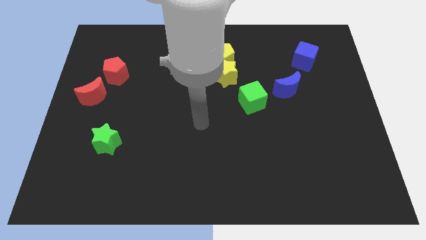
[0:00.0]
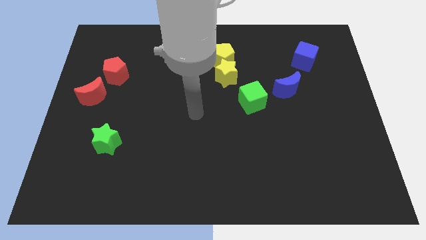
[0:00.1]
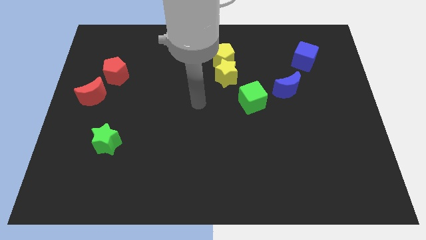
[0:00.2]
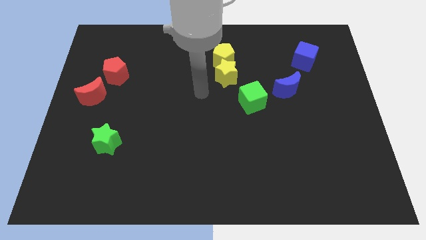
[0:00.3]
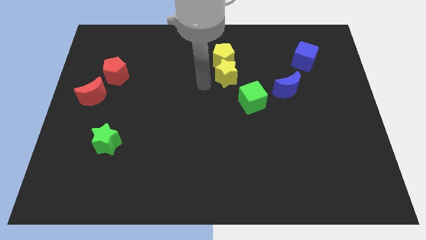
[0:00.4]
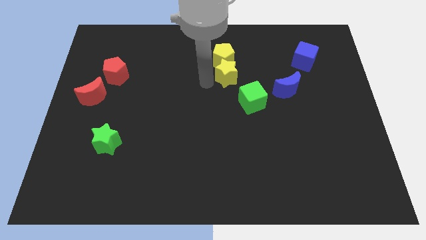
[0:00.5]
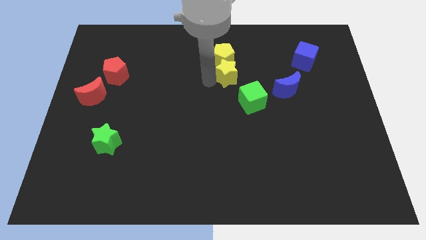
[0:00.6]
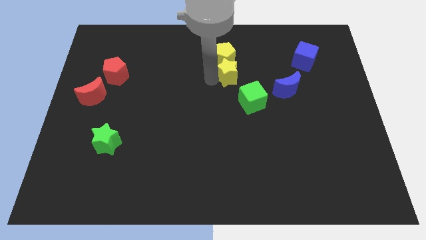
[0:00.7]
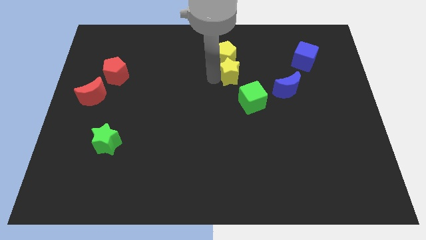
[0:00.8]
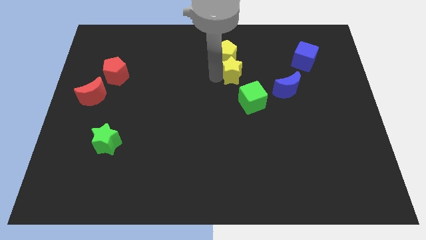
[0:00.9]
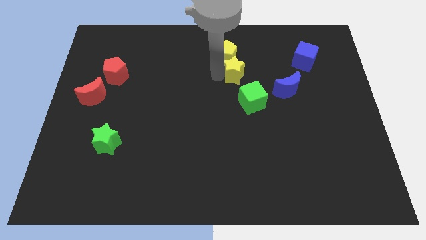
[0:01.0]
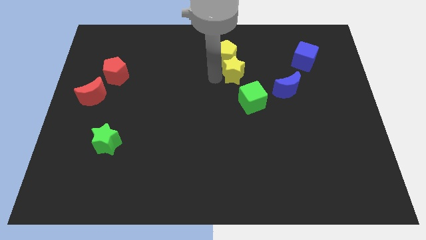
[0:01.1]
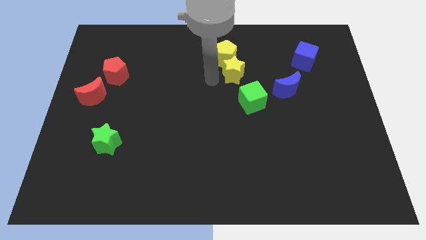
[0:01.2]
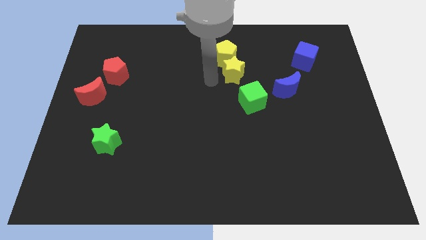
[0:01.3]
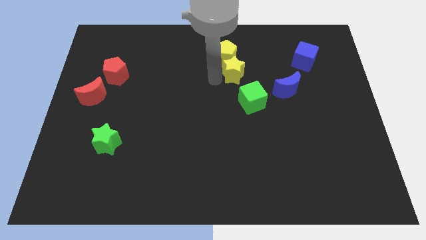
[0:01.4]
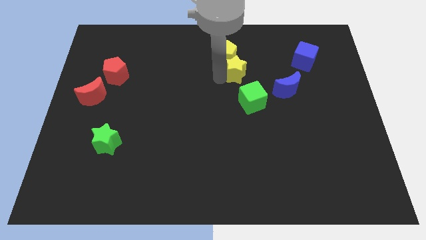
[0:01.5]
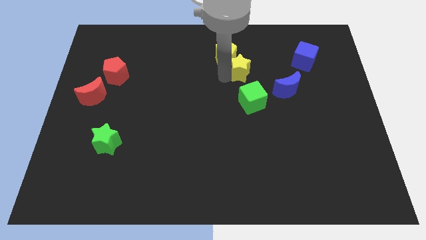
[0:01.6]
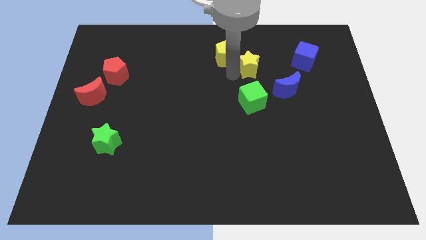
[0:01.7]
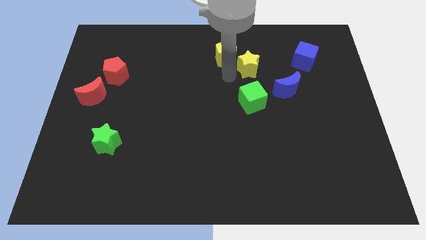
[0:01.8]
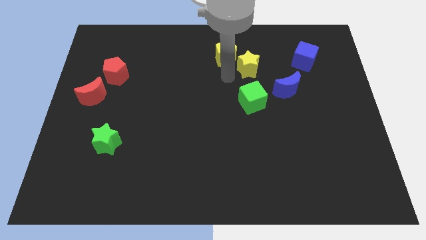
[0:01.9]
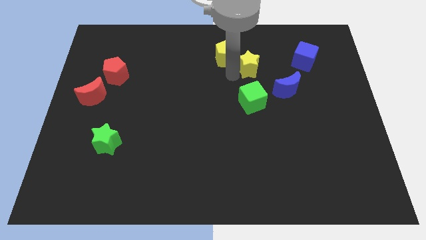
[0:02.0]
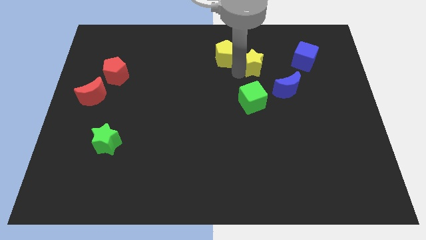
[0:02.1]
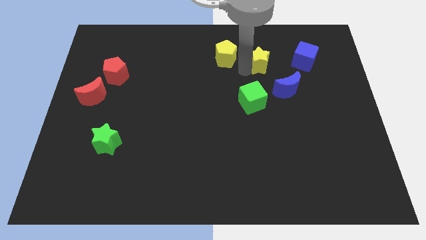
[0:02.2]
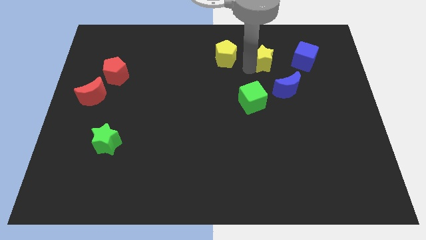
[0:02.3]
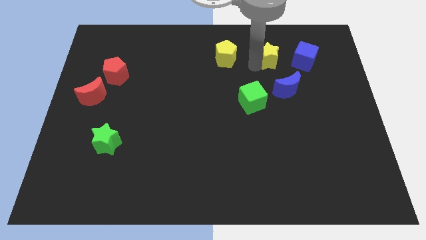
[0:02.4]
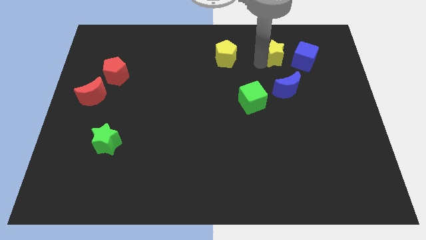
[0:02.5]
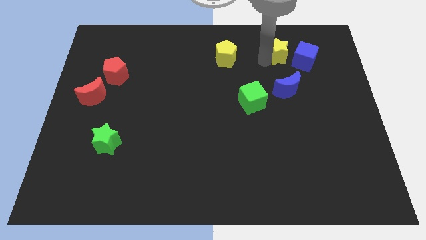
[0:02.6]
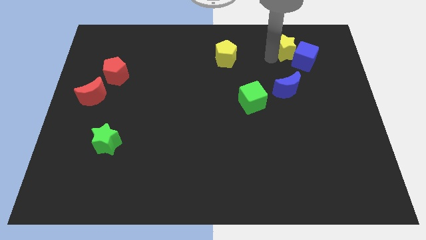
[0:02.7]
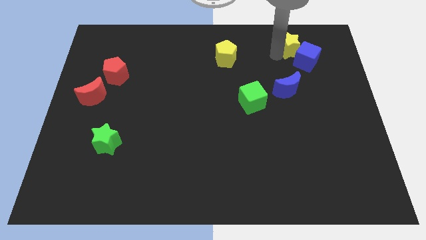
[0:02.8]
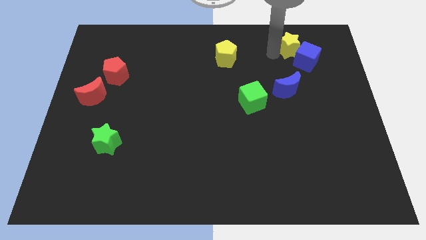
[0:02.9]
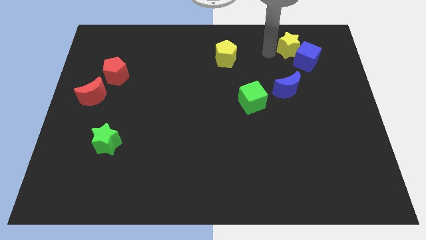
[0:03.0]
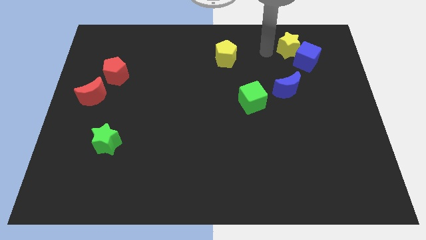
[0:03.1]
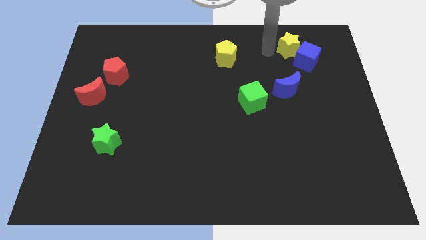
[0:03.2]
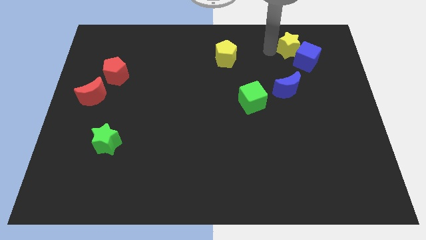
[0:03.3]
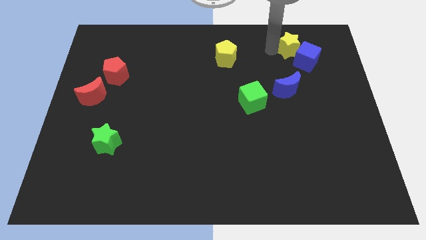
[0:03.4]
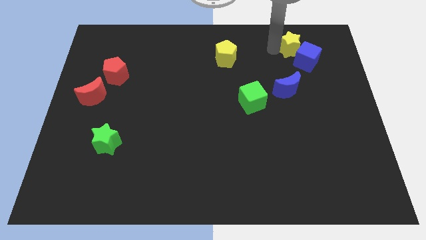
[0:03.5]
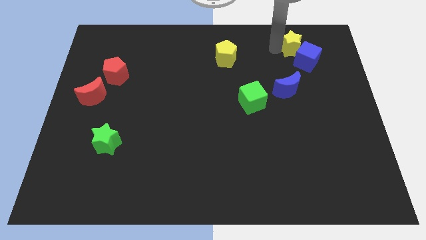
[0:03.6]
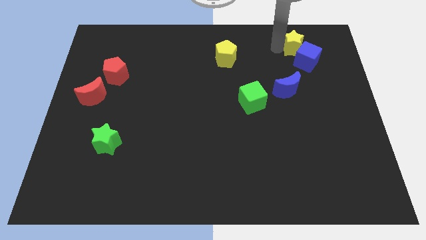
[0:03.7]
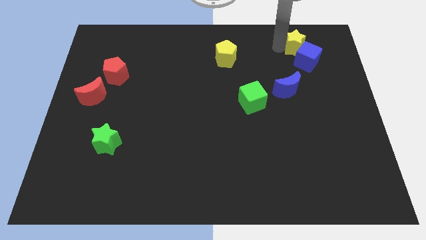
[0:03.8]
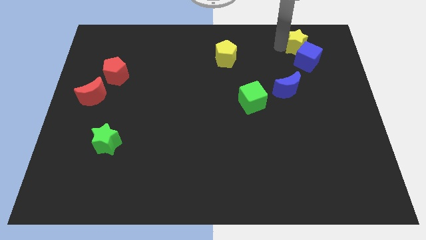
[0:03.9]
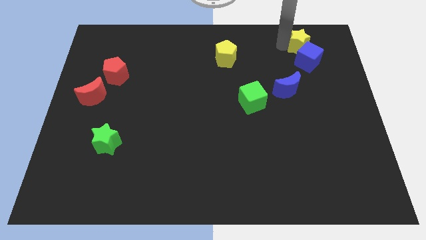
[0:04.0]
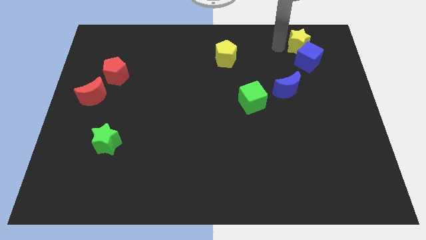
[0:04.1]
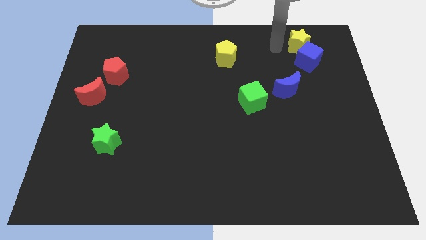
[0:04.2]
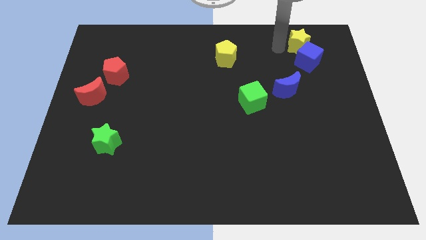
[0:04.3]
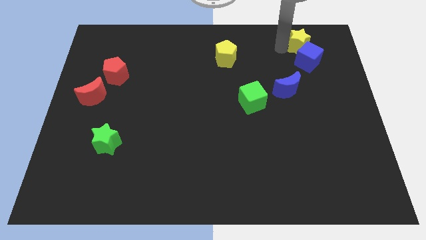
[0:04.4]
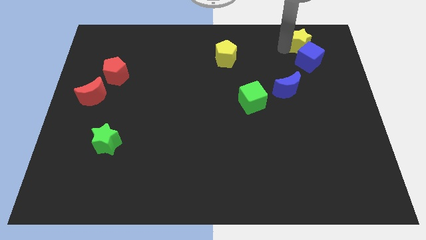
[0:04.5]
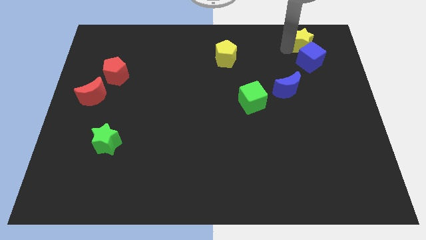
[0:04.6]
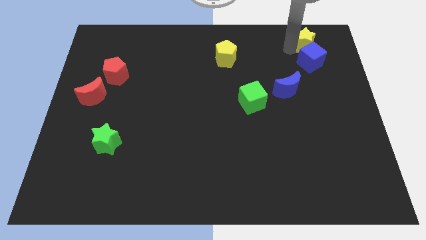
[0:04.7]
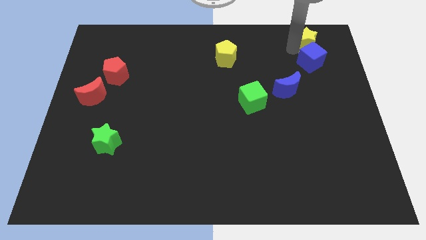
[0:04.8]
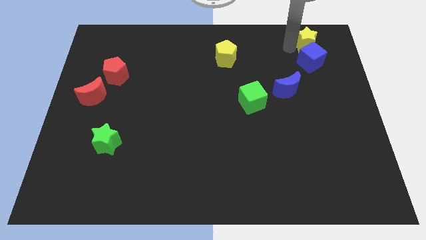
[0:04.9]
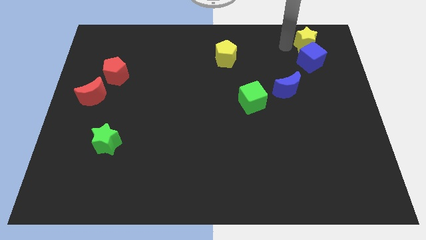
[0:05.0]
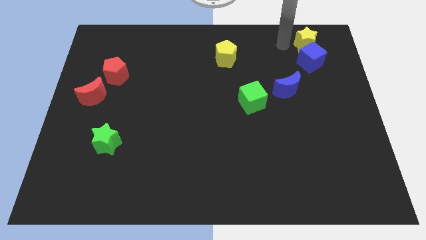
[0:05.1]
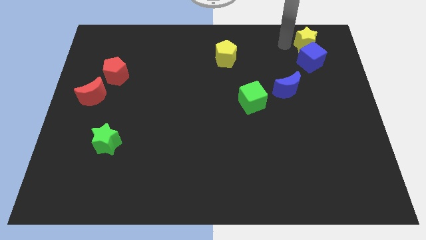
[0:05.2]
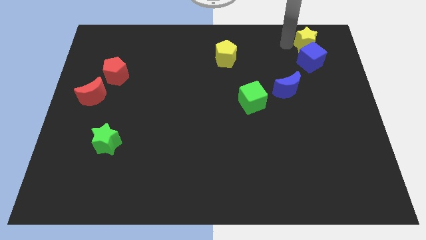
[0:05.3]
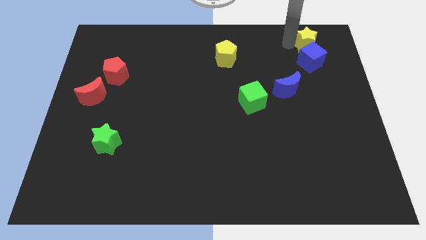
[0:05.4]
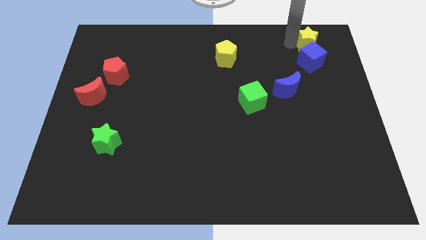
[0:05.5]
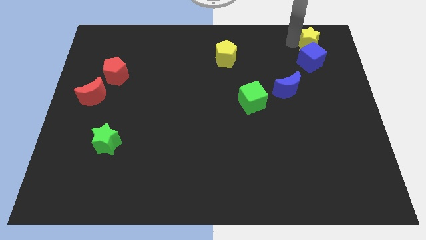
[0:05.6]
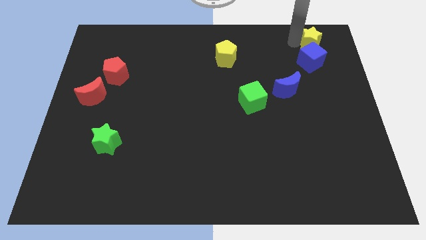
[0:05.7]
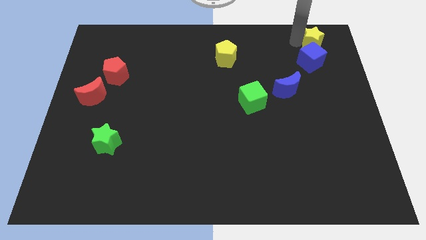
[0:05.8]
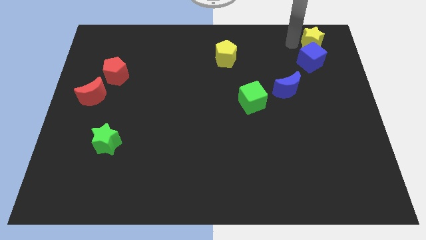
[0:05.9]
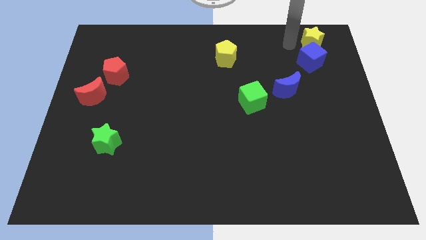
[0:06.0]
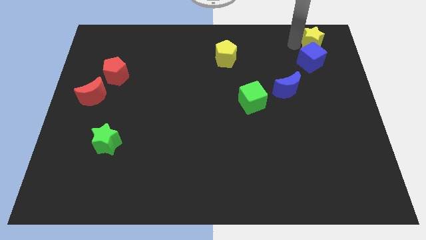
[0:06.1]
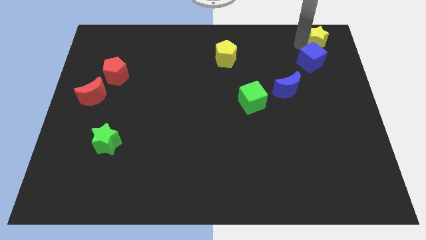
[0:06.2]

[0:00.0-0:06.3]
slide the yellow star to the top right corner

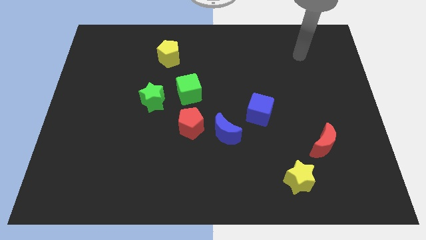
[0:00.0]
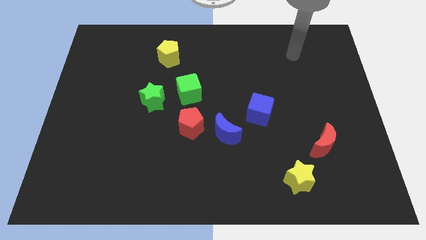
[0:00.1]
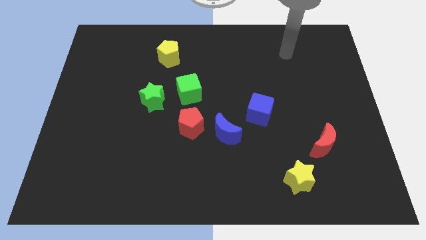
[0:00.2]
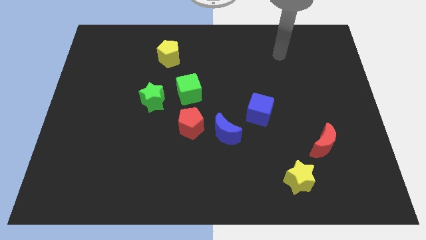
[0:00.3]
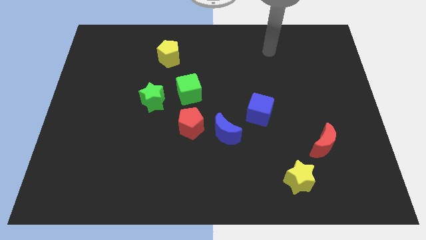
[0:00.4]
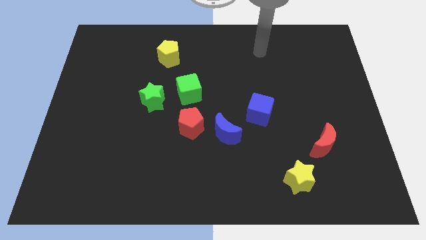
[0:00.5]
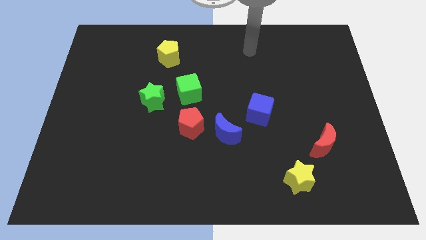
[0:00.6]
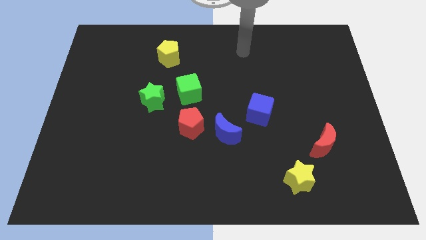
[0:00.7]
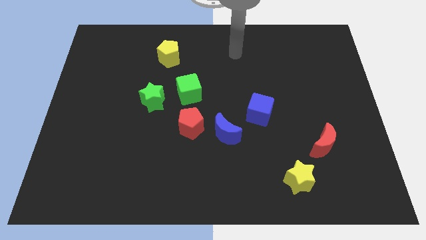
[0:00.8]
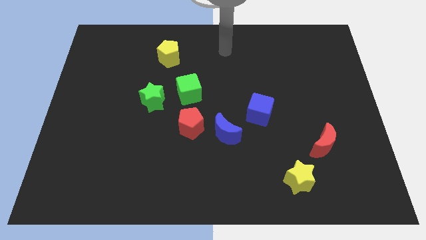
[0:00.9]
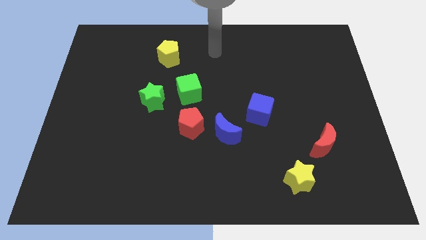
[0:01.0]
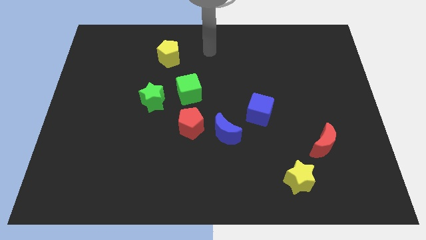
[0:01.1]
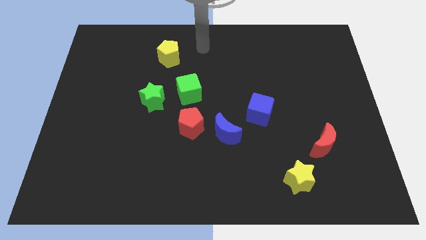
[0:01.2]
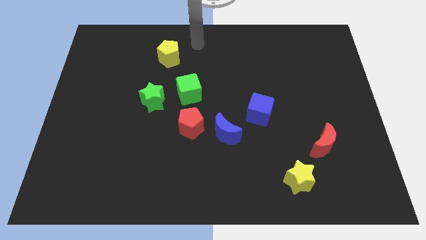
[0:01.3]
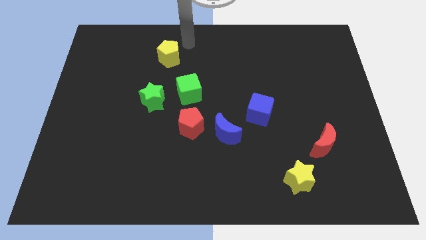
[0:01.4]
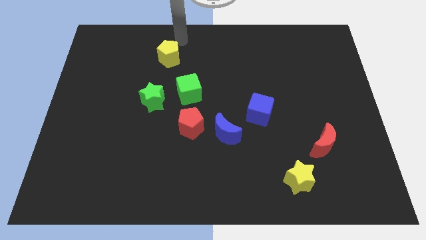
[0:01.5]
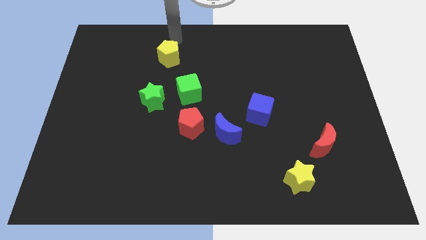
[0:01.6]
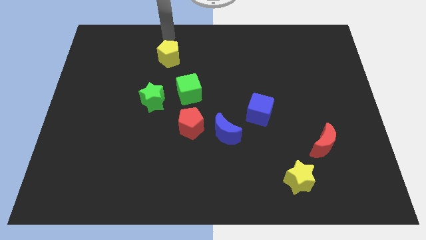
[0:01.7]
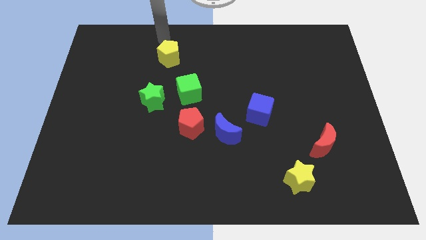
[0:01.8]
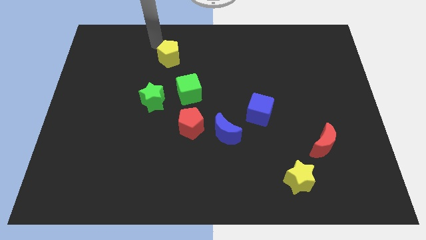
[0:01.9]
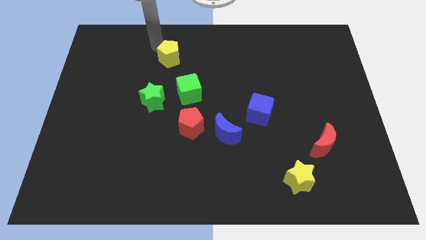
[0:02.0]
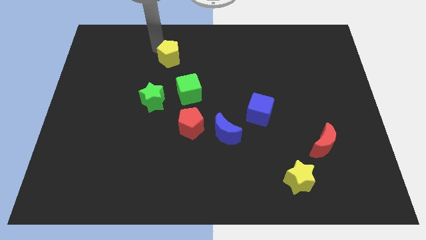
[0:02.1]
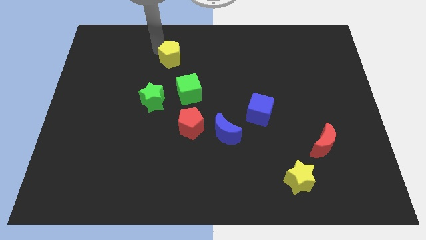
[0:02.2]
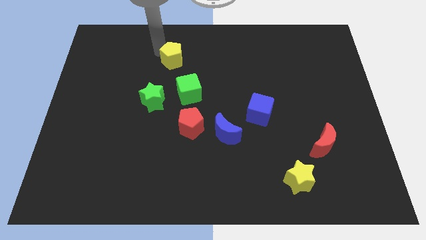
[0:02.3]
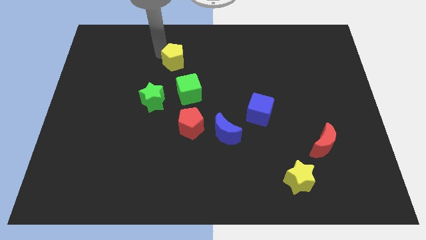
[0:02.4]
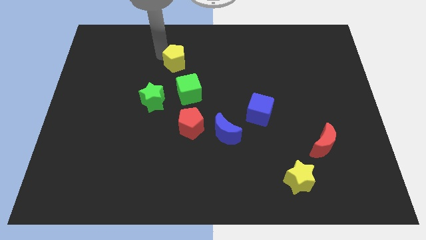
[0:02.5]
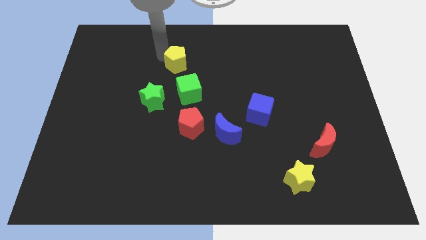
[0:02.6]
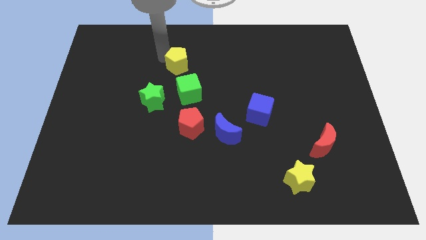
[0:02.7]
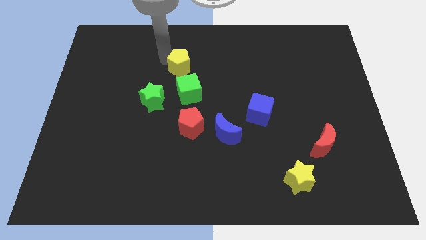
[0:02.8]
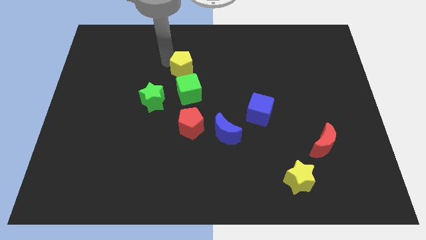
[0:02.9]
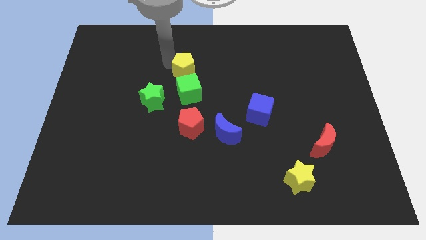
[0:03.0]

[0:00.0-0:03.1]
put the yellow pentagon to the center of the board
